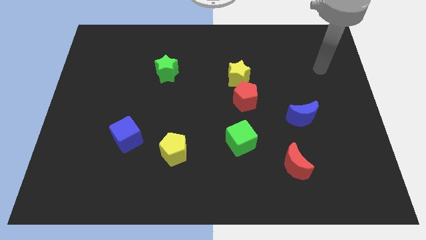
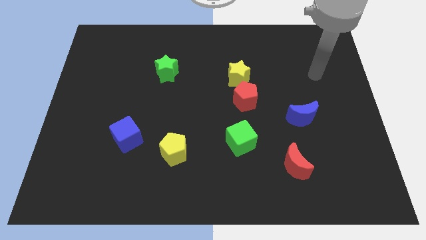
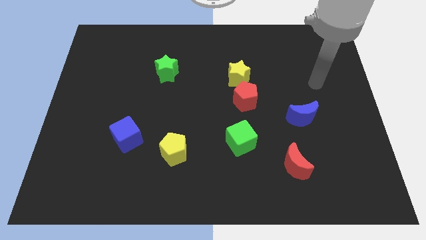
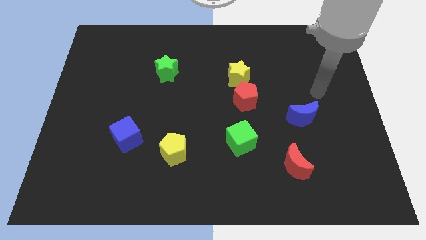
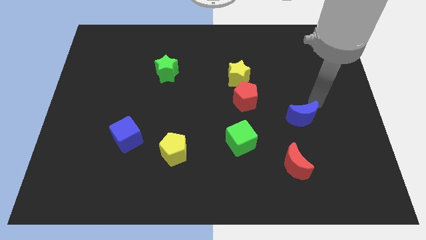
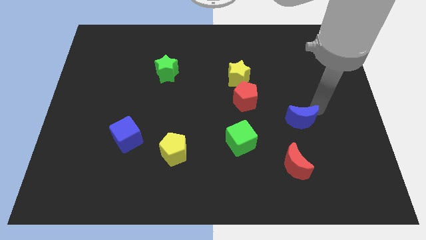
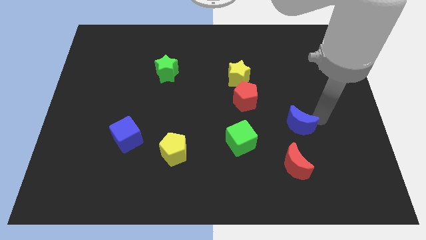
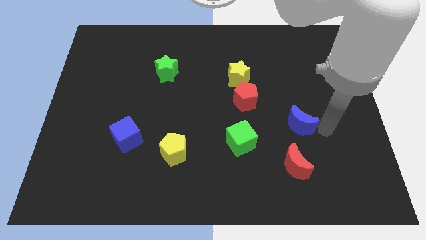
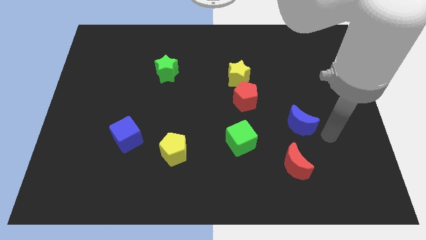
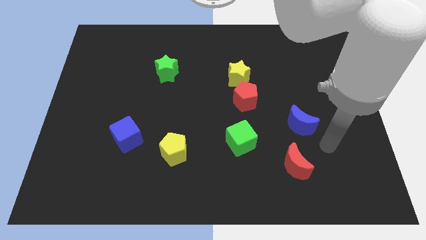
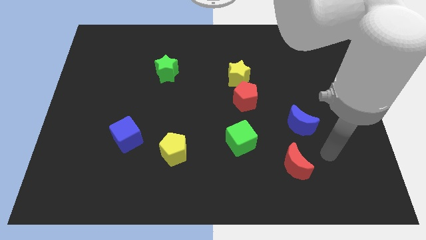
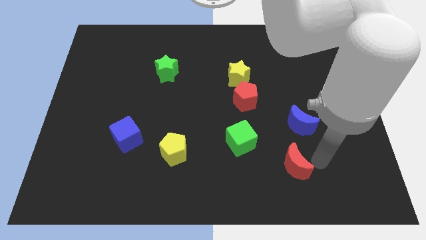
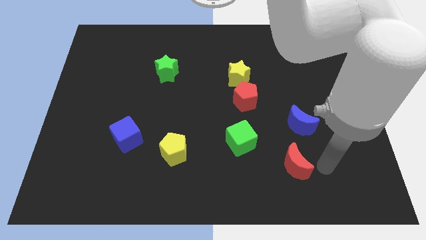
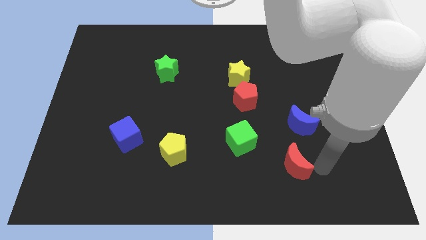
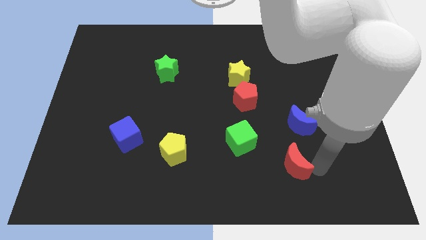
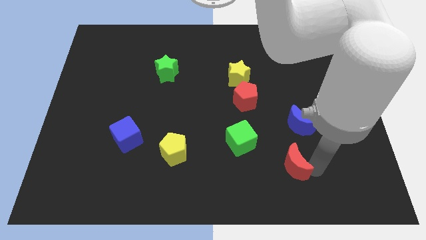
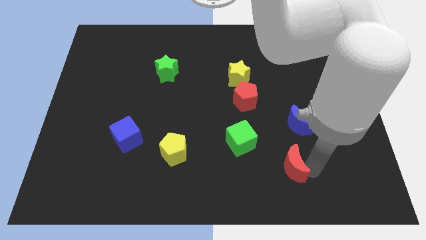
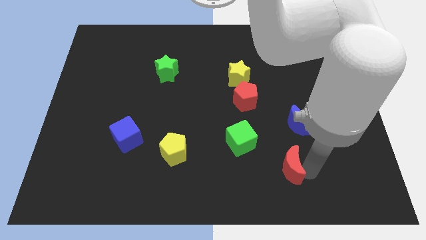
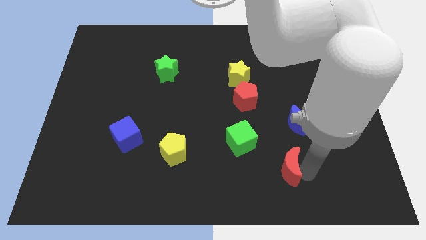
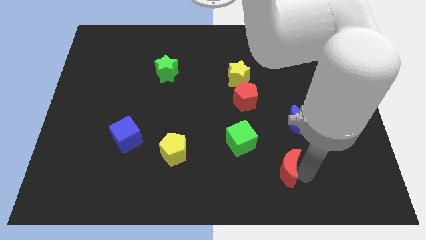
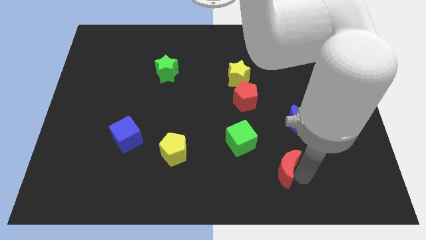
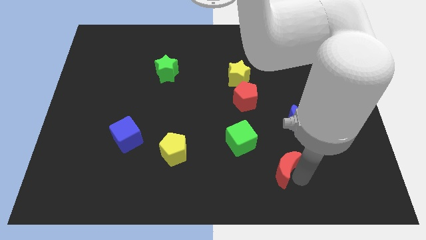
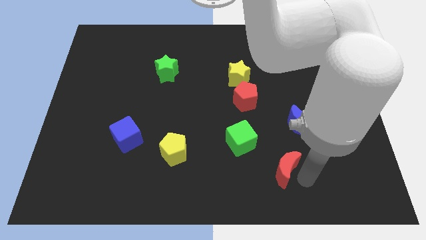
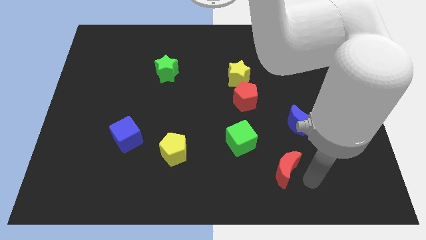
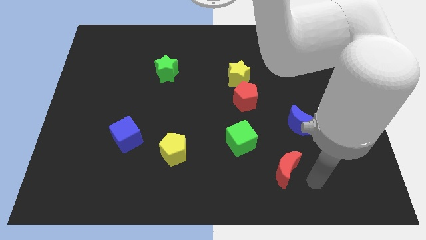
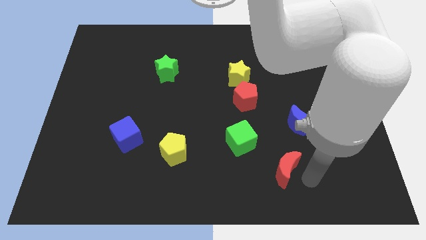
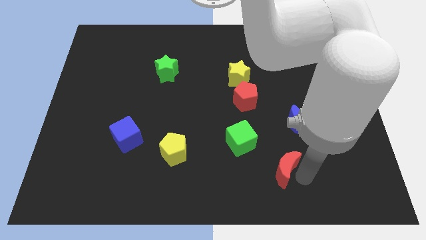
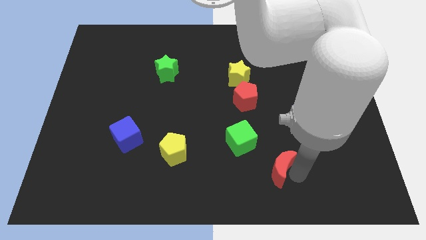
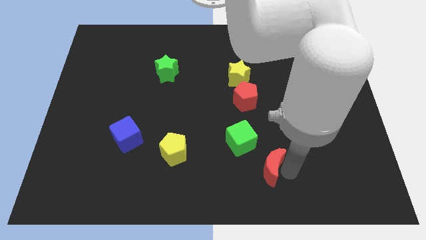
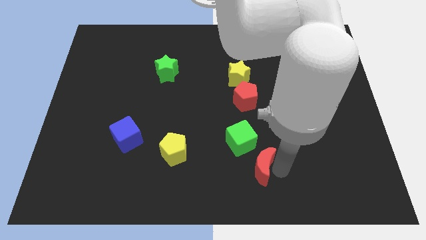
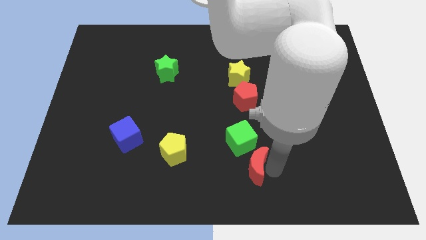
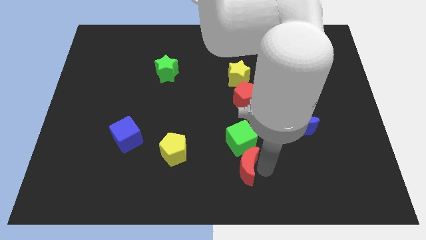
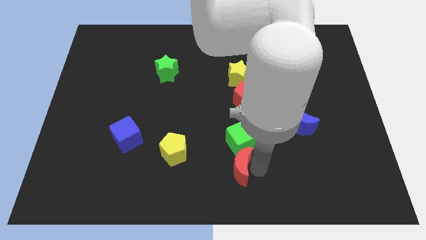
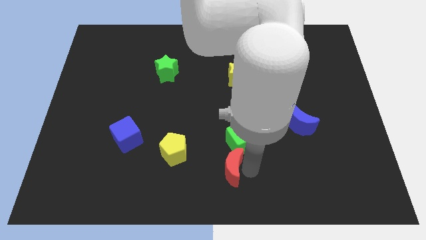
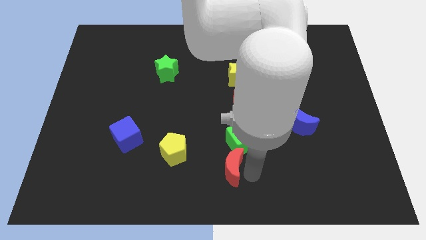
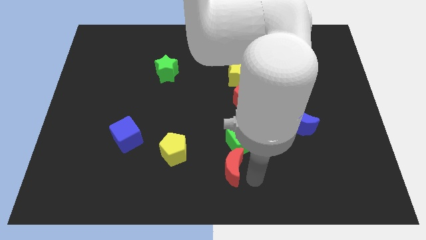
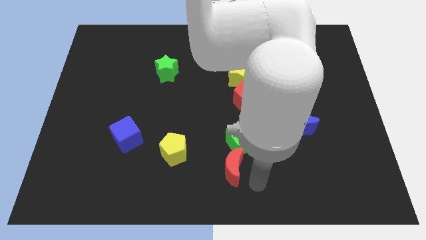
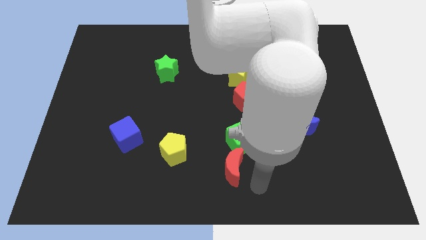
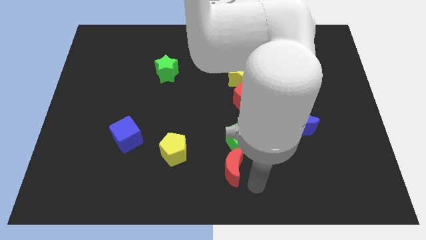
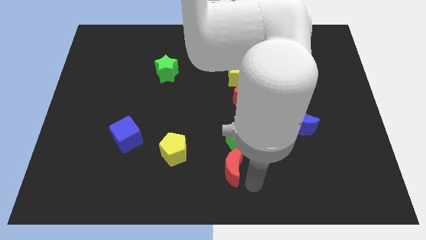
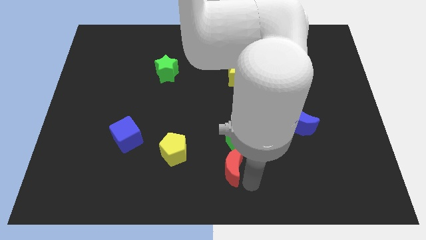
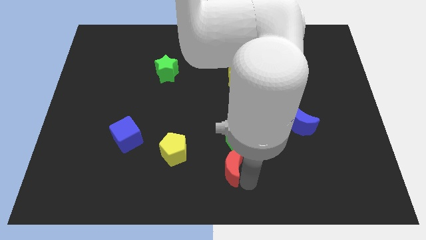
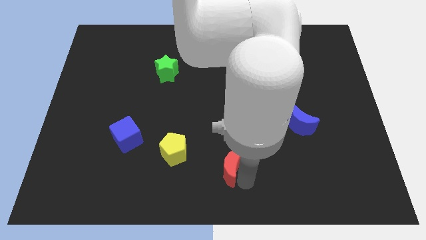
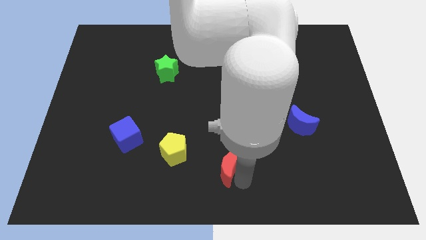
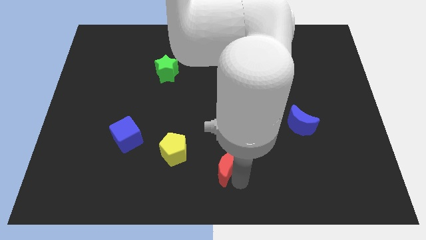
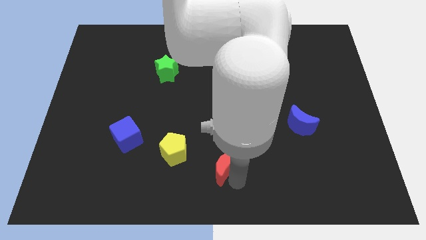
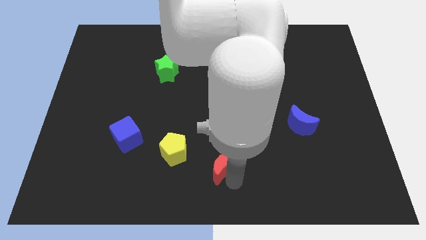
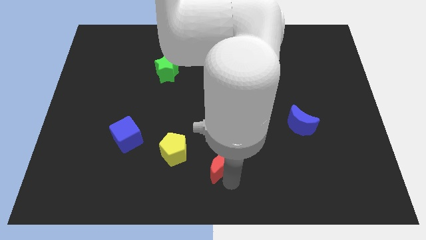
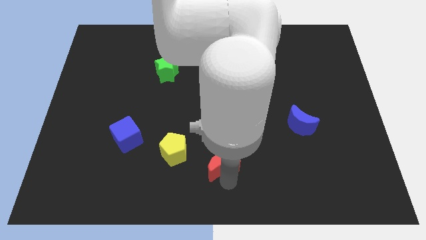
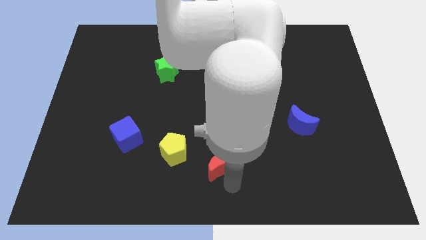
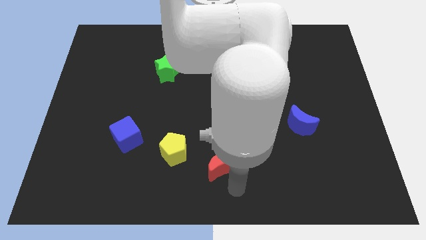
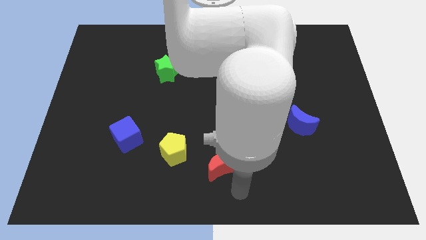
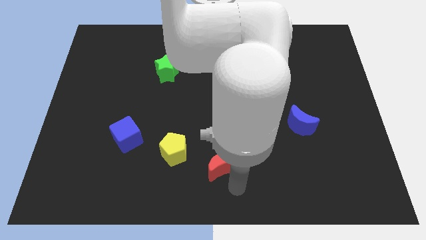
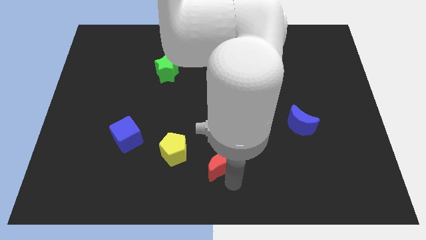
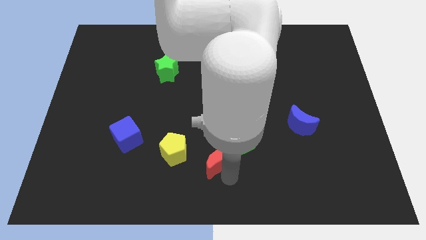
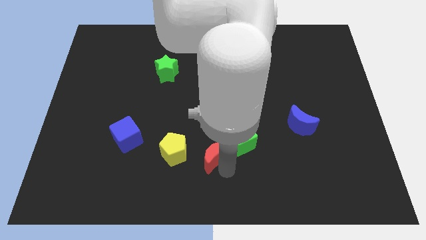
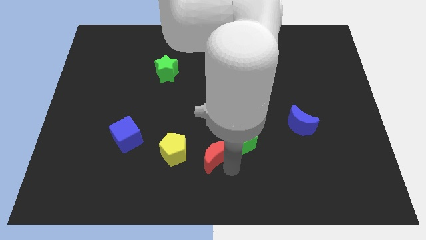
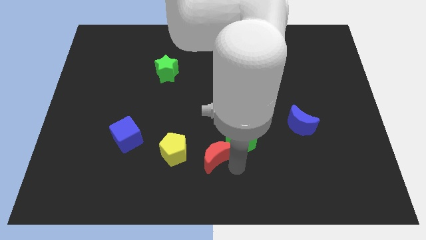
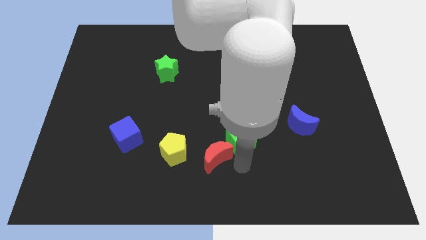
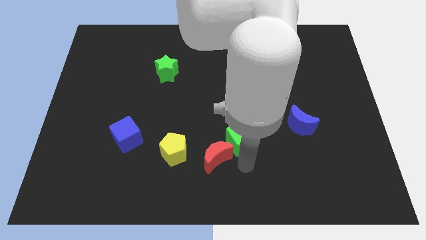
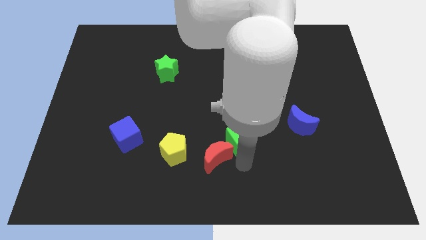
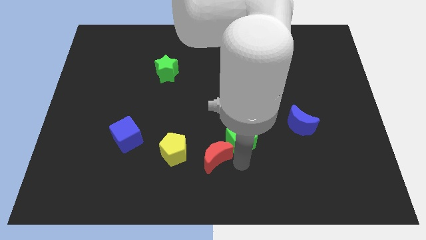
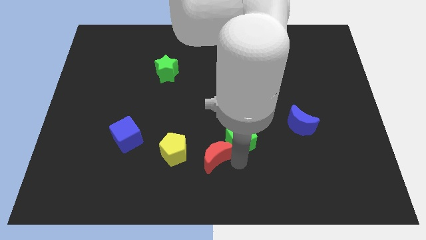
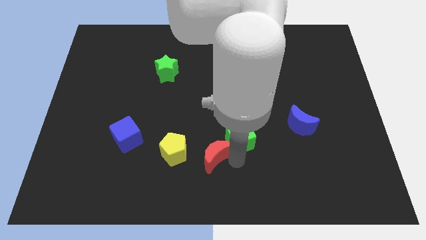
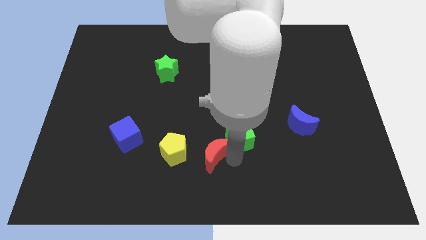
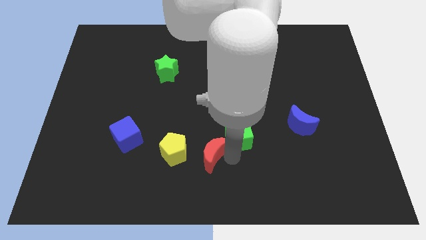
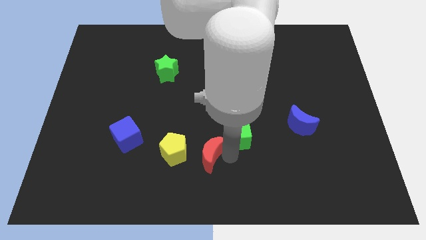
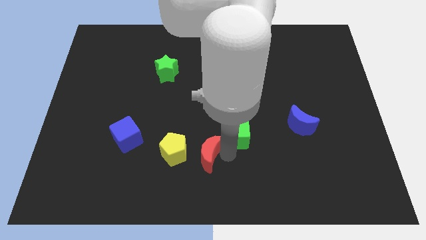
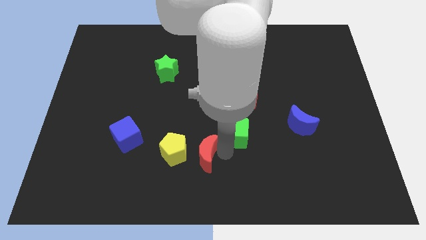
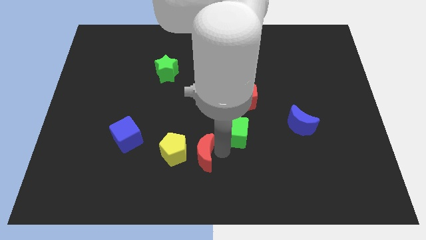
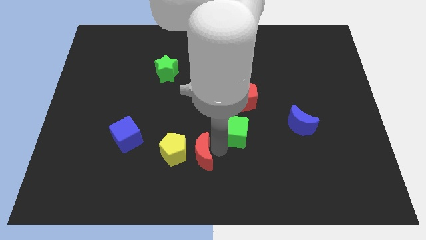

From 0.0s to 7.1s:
slide the red moon next to the yellow pentagon

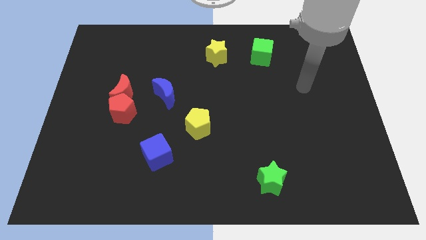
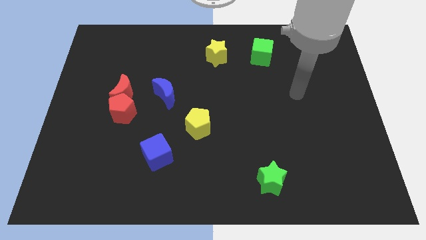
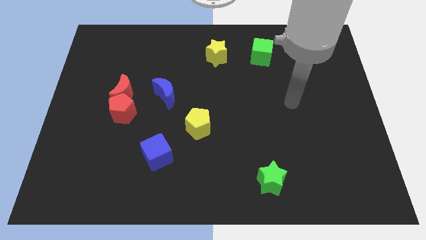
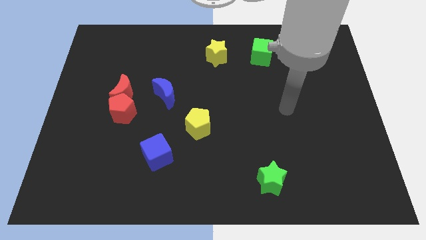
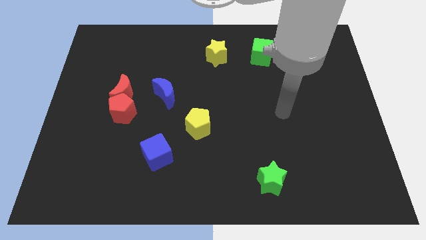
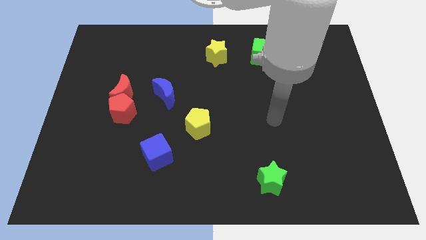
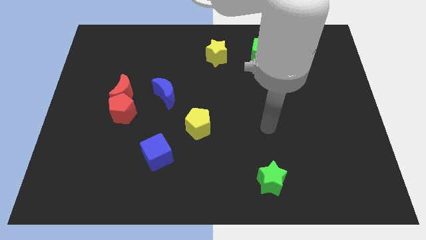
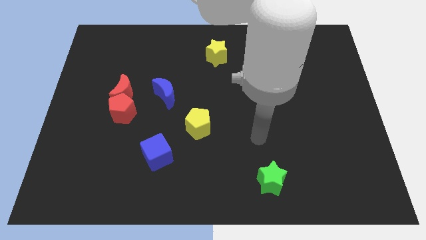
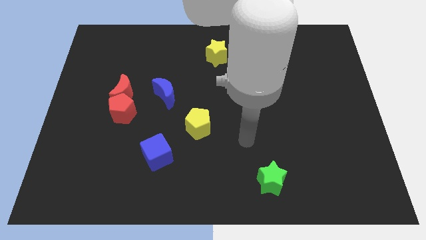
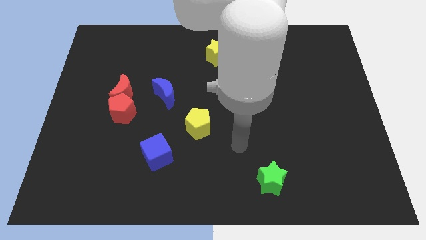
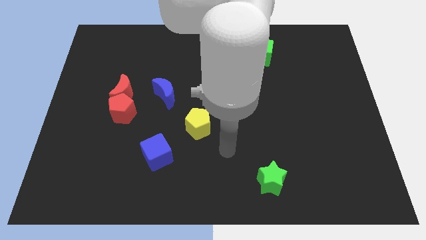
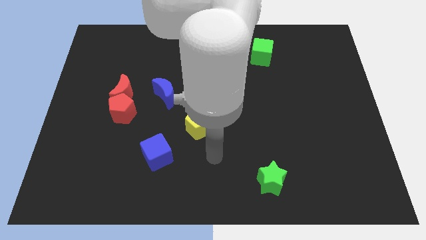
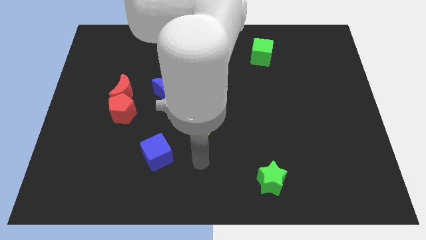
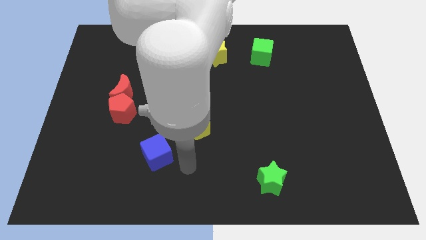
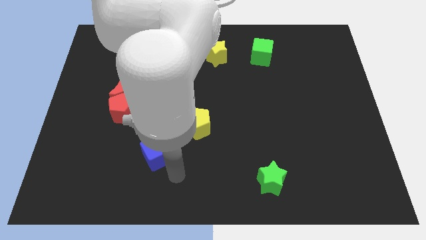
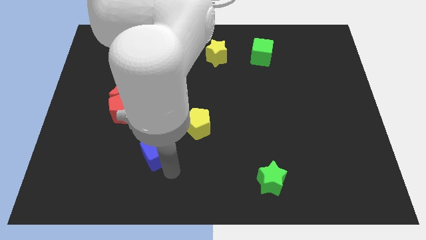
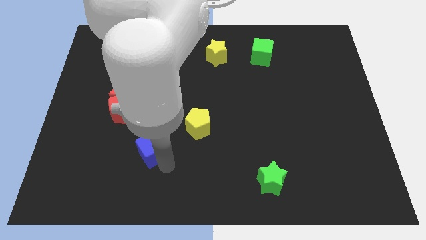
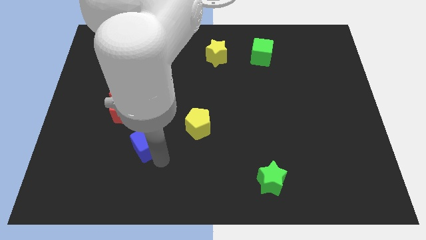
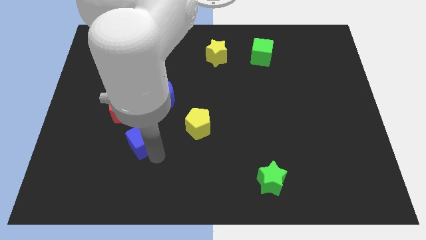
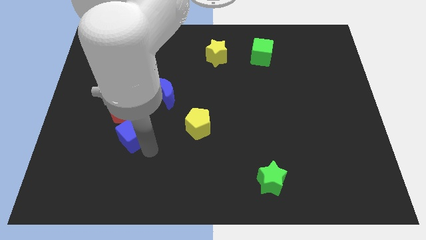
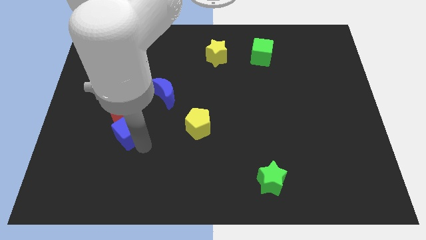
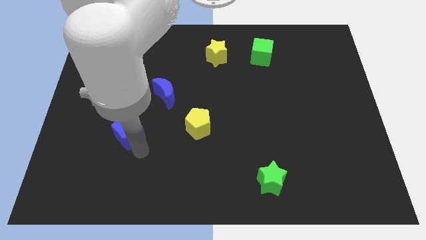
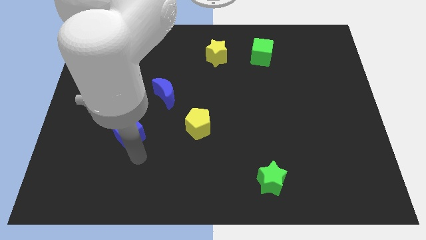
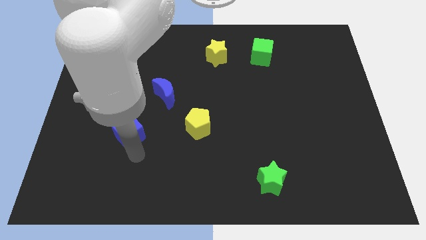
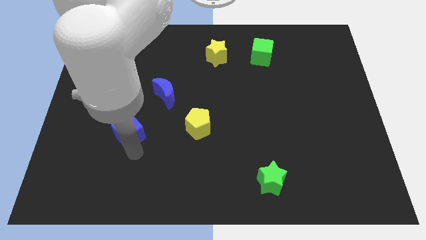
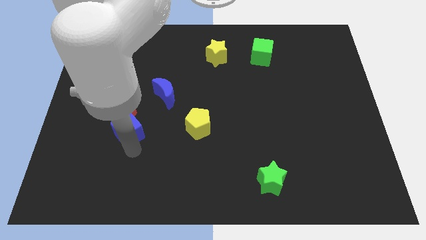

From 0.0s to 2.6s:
push the blue cube close to the red pentagon
